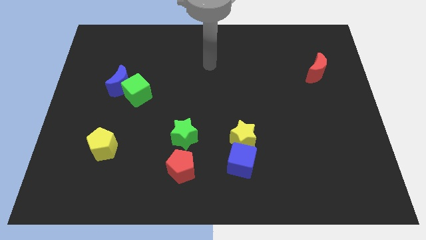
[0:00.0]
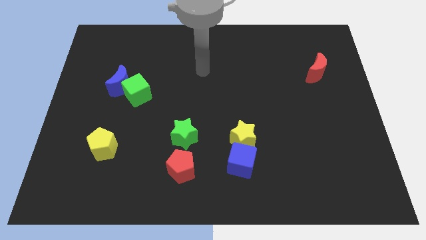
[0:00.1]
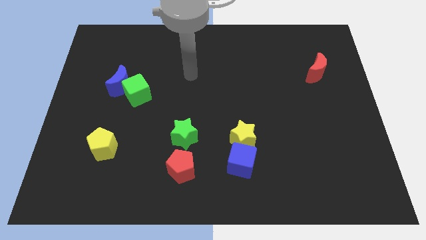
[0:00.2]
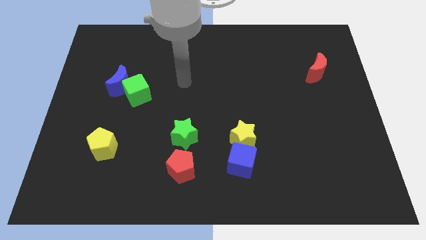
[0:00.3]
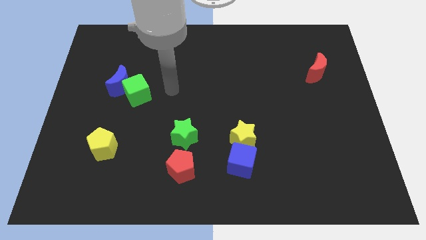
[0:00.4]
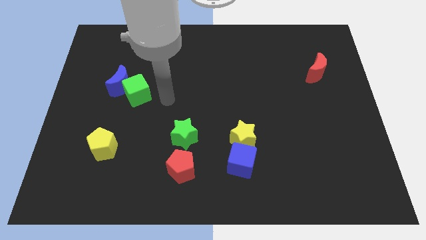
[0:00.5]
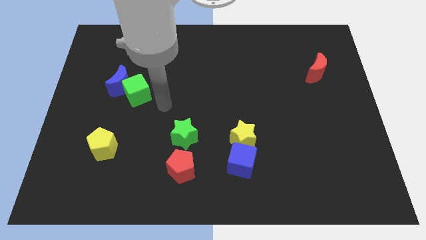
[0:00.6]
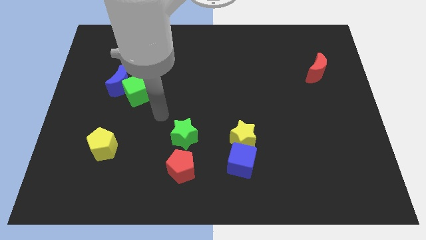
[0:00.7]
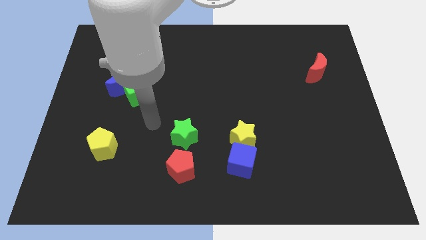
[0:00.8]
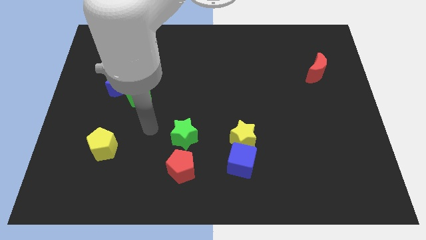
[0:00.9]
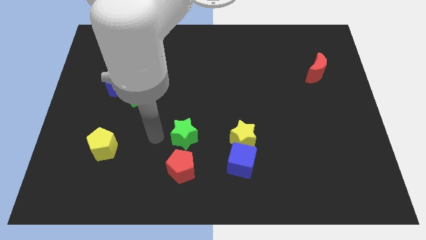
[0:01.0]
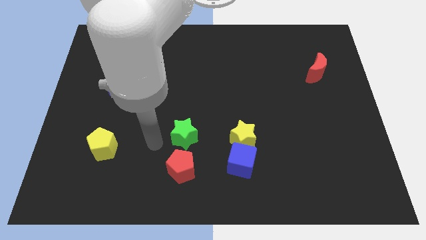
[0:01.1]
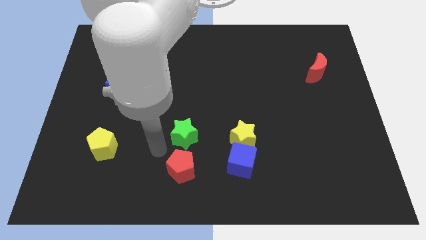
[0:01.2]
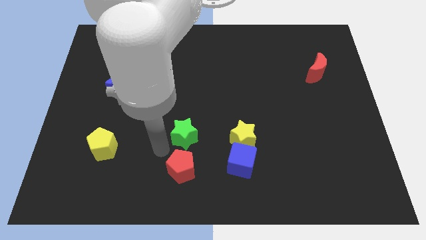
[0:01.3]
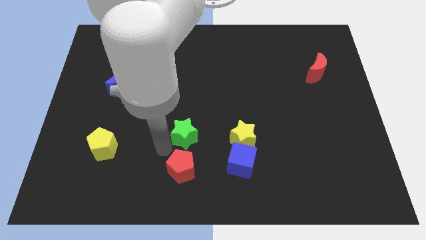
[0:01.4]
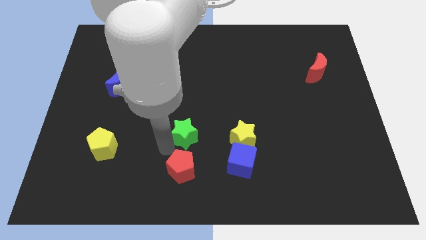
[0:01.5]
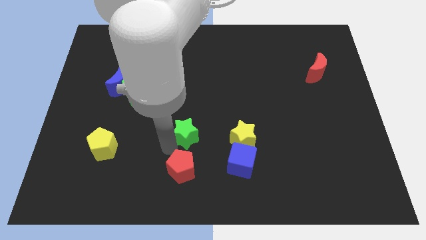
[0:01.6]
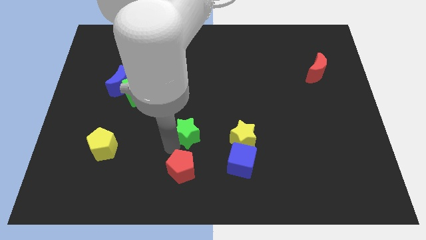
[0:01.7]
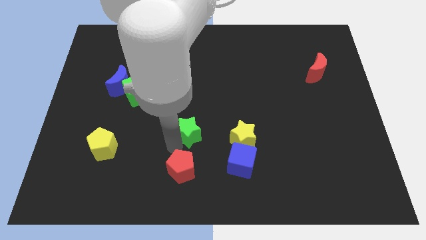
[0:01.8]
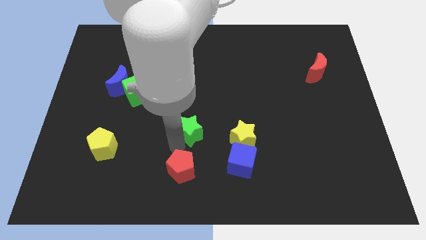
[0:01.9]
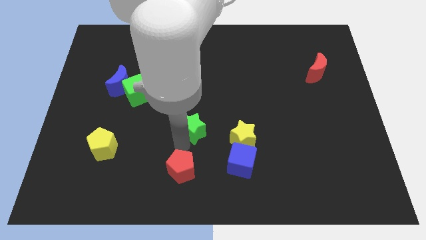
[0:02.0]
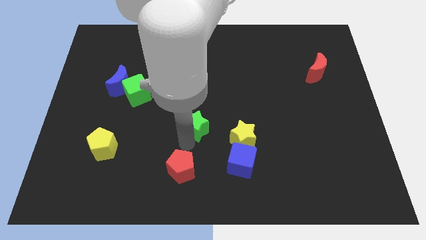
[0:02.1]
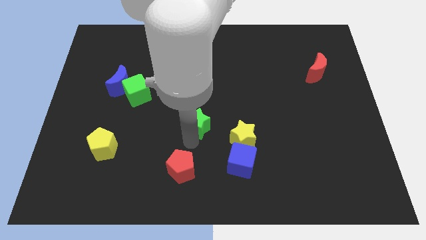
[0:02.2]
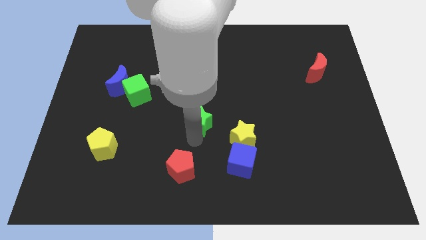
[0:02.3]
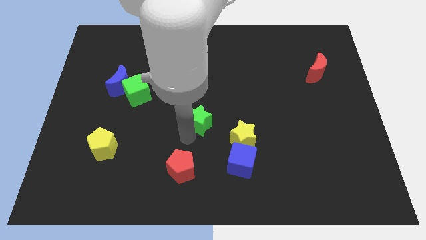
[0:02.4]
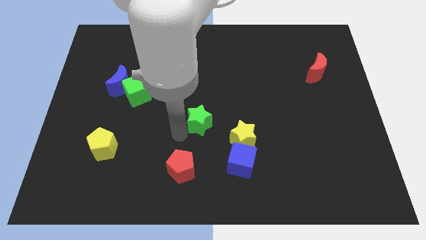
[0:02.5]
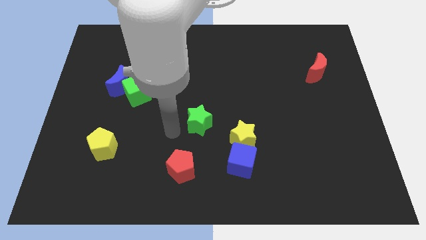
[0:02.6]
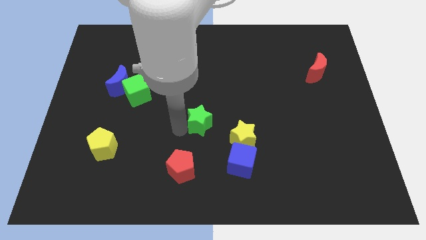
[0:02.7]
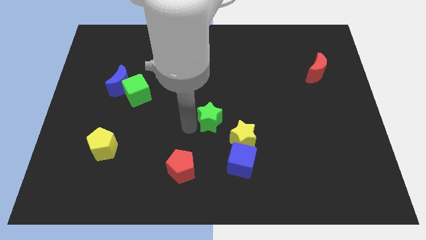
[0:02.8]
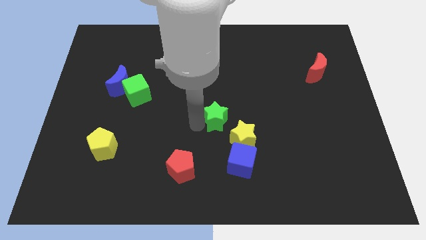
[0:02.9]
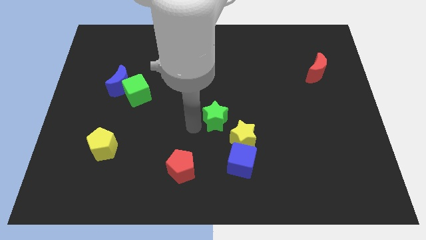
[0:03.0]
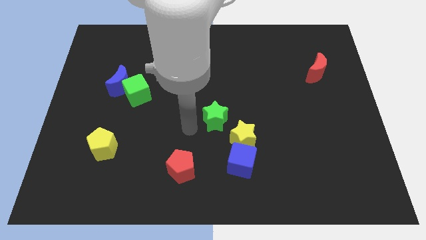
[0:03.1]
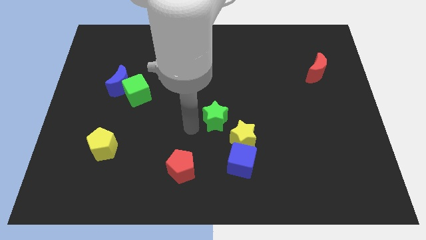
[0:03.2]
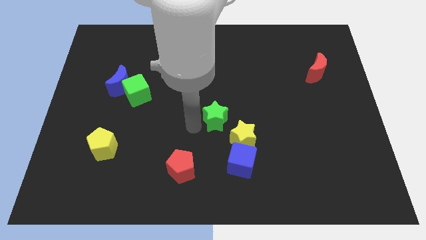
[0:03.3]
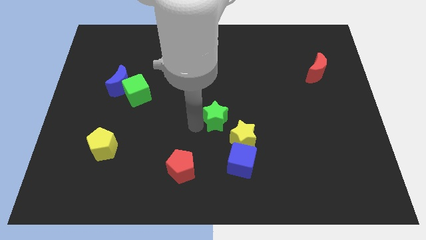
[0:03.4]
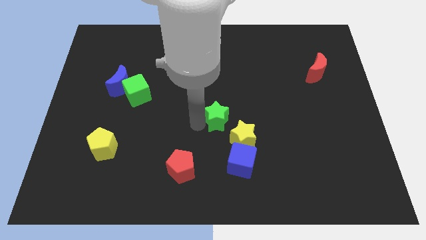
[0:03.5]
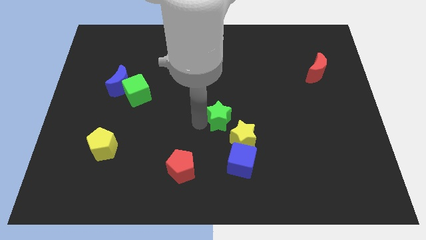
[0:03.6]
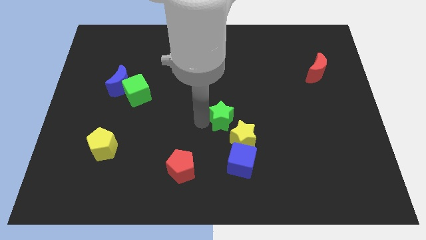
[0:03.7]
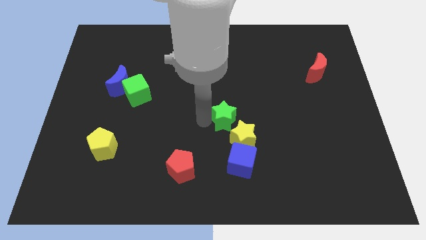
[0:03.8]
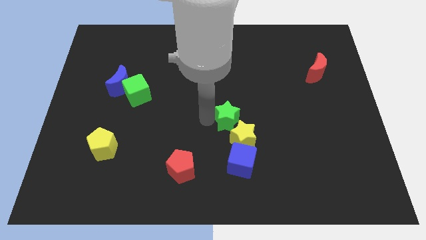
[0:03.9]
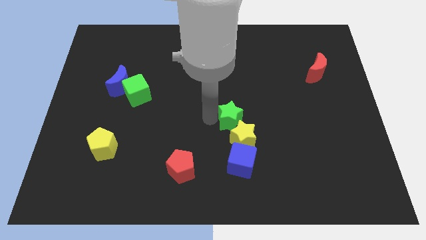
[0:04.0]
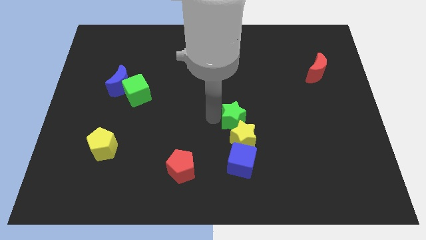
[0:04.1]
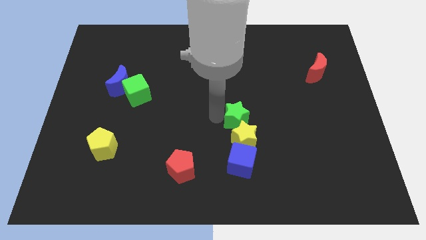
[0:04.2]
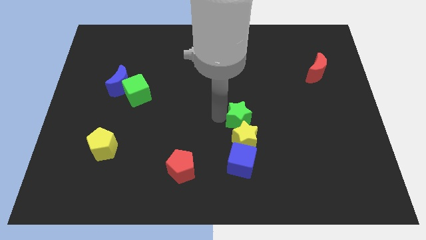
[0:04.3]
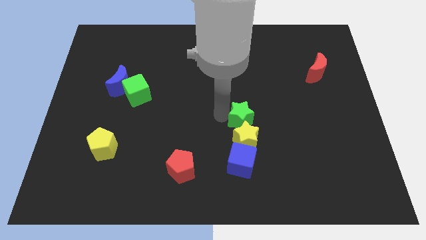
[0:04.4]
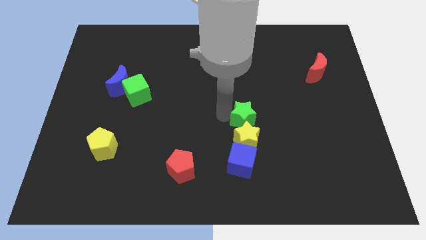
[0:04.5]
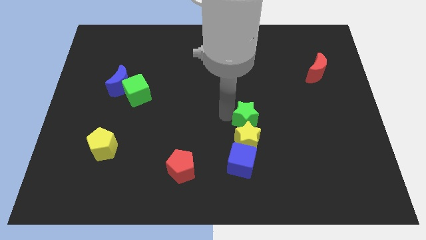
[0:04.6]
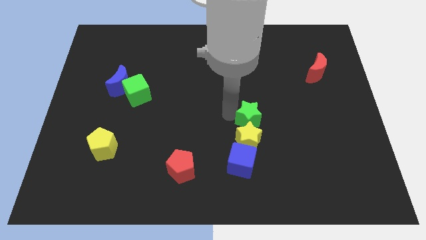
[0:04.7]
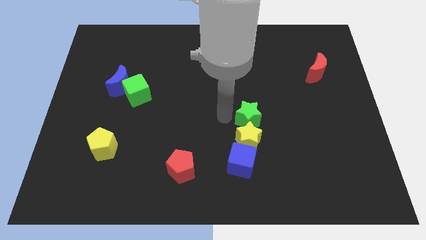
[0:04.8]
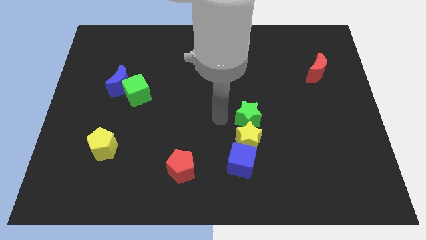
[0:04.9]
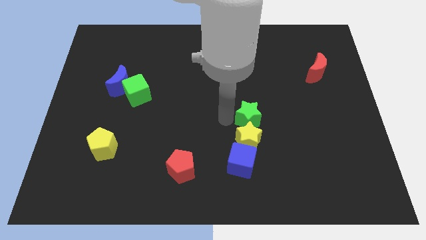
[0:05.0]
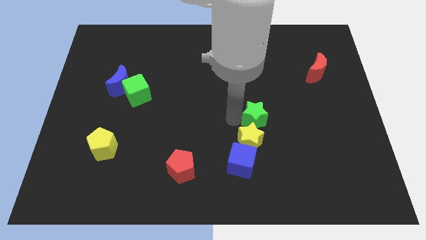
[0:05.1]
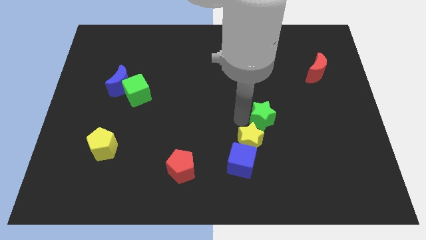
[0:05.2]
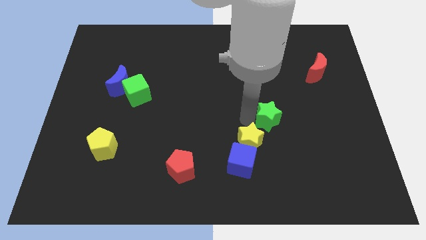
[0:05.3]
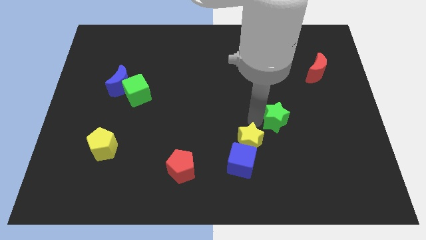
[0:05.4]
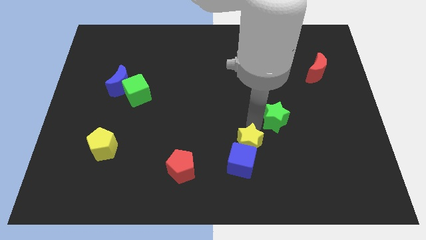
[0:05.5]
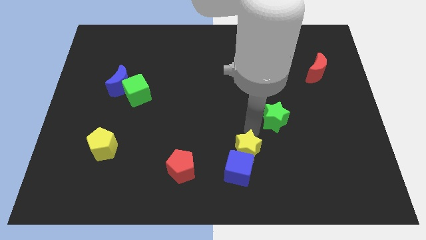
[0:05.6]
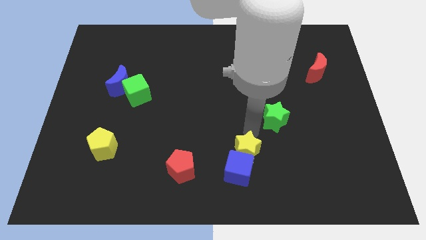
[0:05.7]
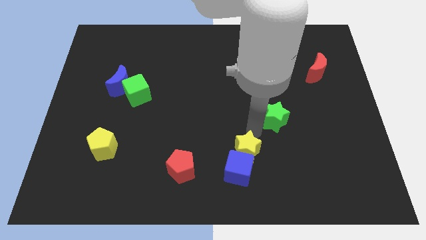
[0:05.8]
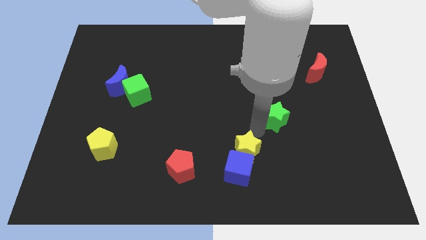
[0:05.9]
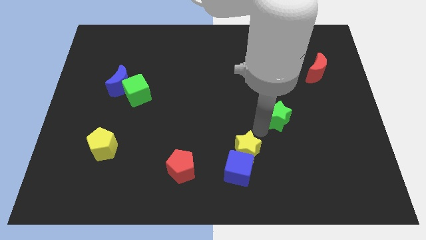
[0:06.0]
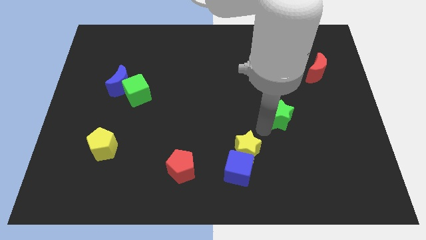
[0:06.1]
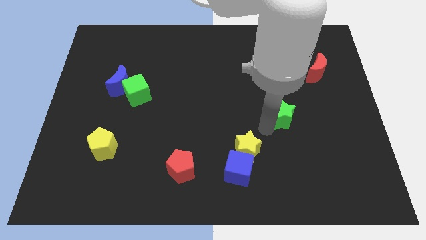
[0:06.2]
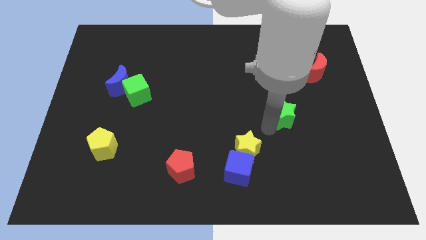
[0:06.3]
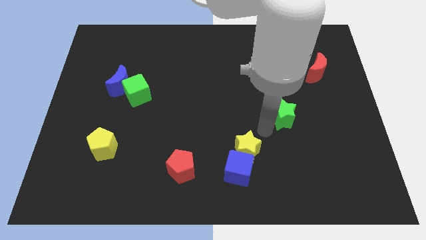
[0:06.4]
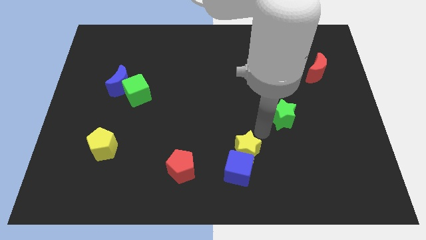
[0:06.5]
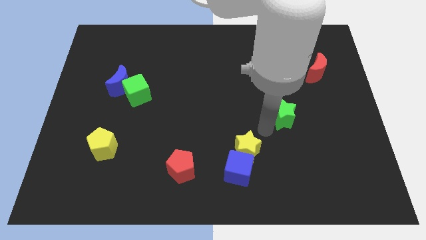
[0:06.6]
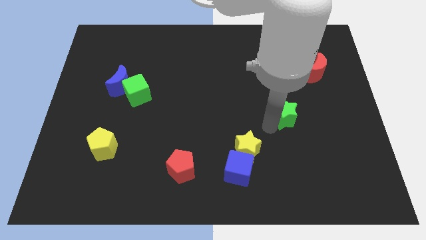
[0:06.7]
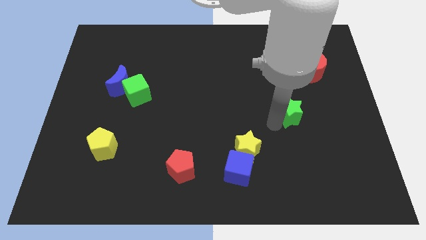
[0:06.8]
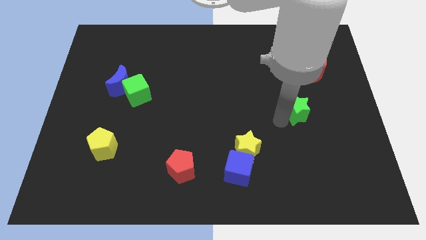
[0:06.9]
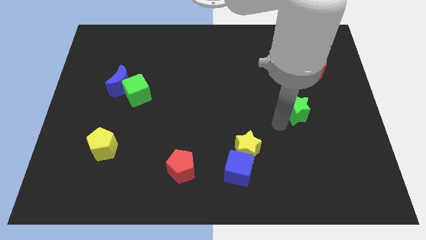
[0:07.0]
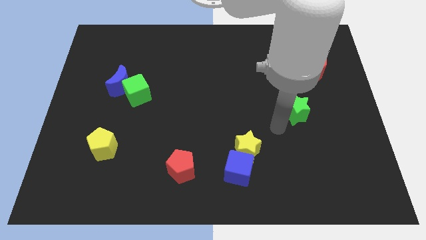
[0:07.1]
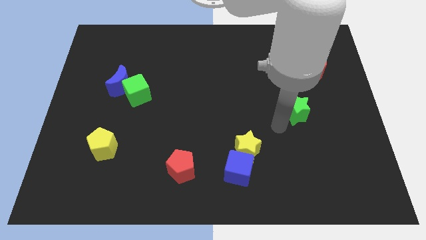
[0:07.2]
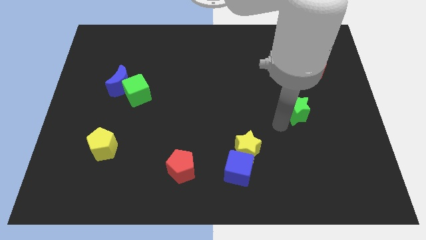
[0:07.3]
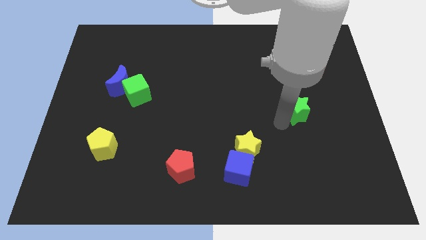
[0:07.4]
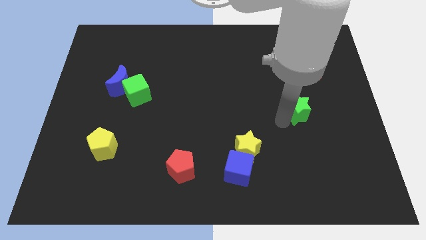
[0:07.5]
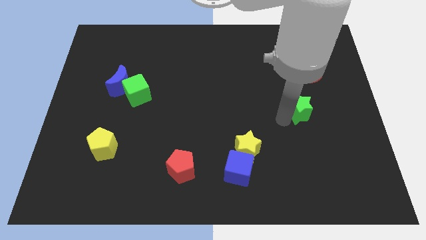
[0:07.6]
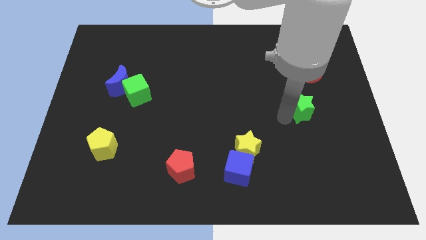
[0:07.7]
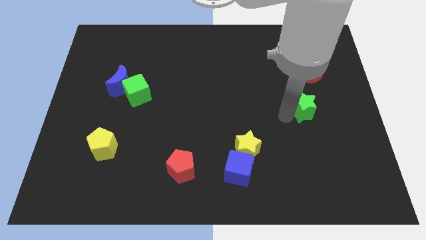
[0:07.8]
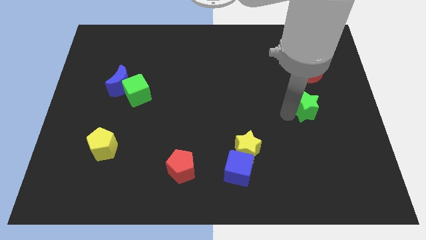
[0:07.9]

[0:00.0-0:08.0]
put the green star below the red moon
